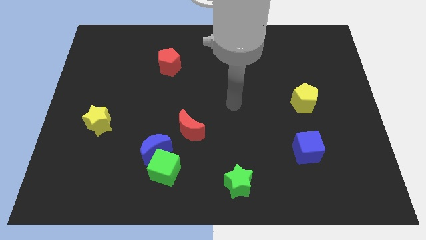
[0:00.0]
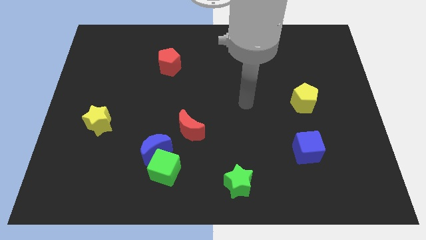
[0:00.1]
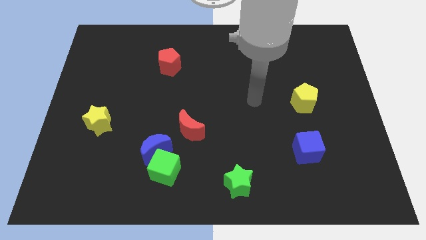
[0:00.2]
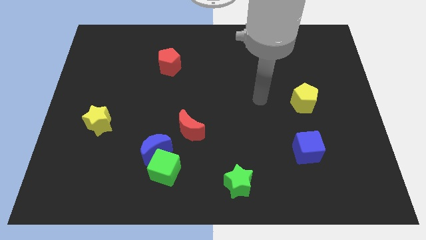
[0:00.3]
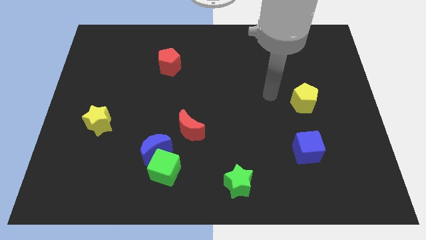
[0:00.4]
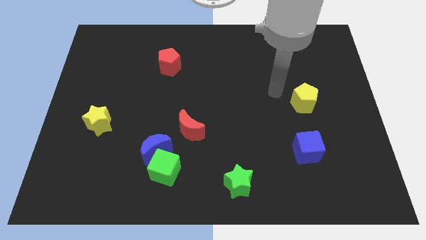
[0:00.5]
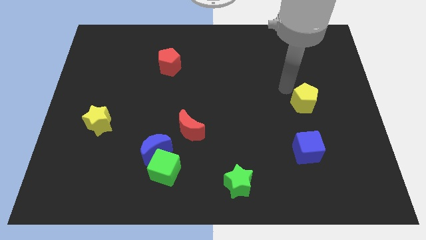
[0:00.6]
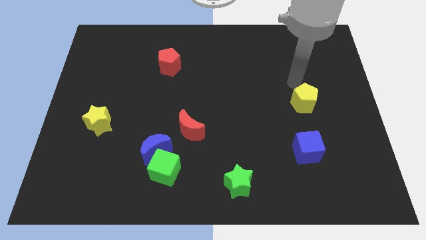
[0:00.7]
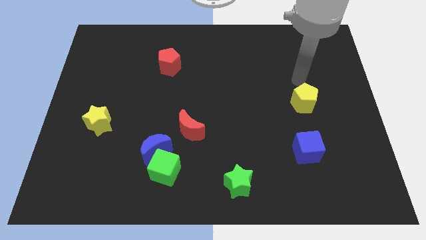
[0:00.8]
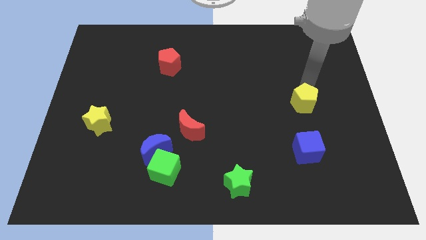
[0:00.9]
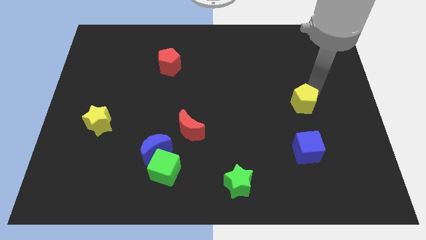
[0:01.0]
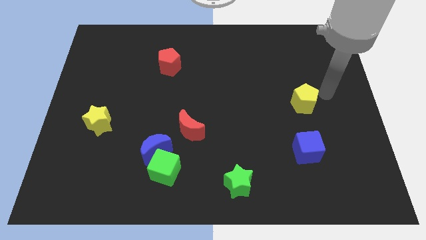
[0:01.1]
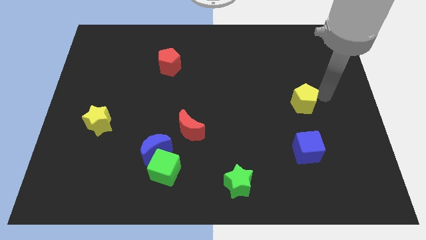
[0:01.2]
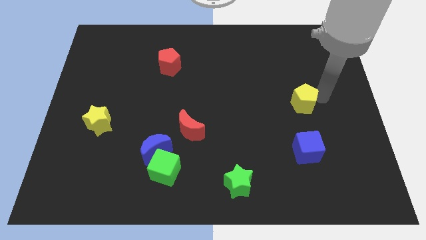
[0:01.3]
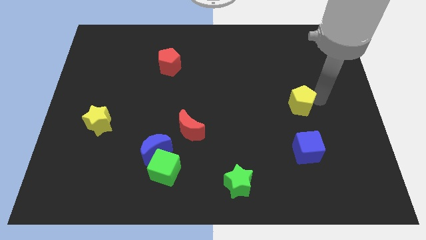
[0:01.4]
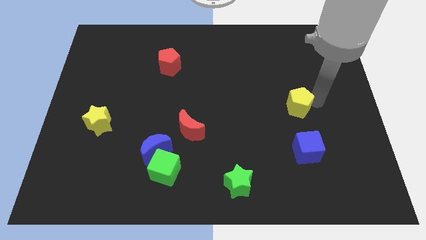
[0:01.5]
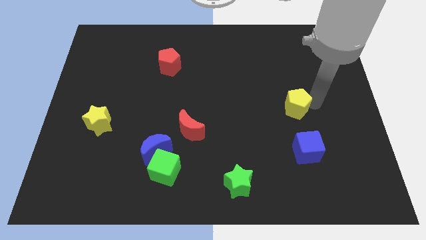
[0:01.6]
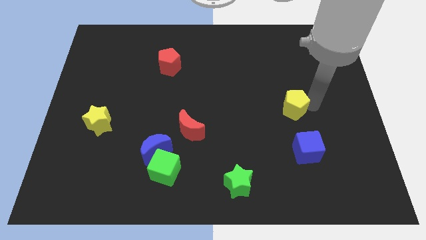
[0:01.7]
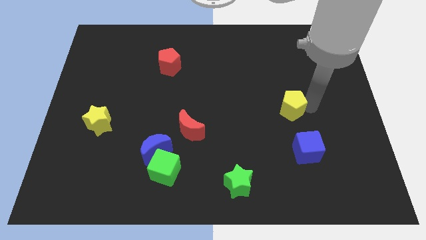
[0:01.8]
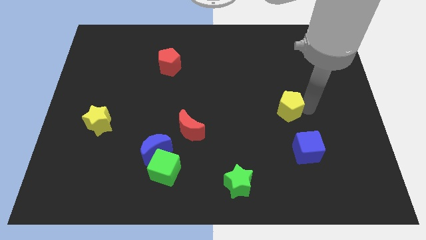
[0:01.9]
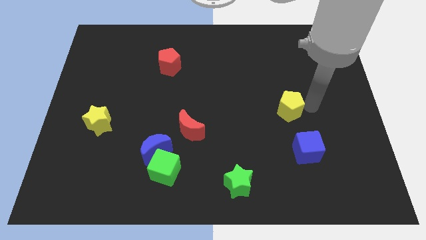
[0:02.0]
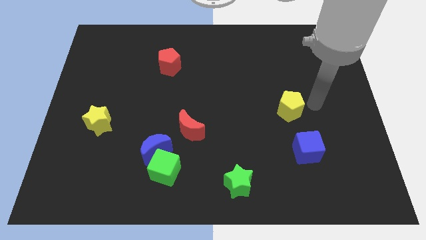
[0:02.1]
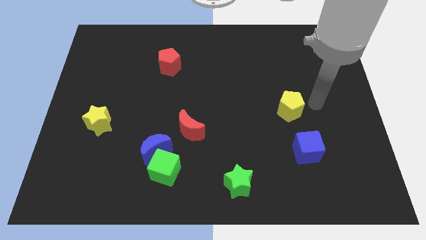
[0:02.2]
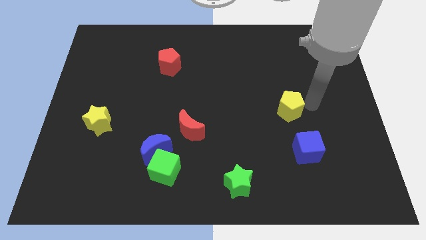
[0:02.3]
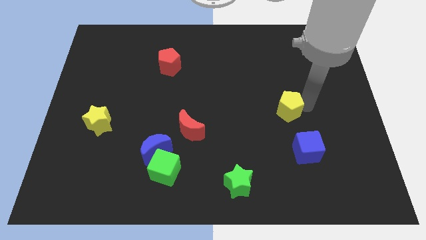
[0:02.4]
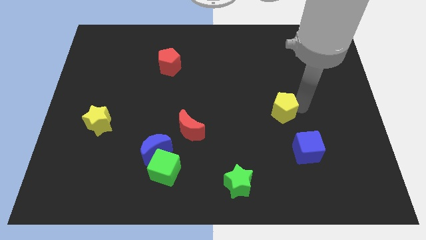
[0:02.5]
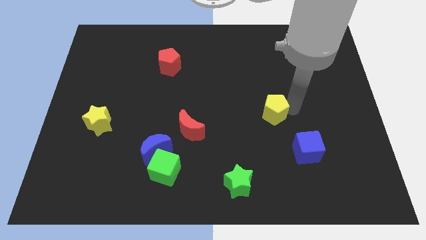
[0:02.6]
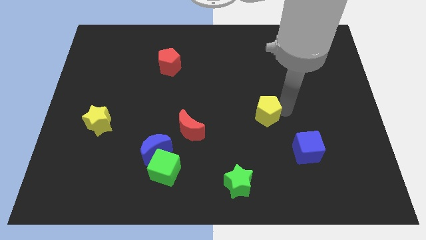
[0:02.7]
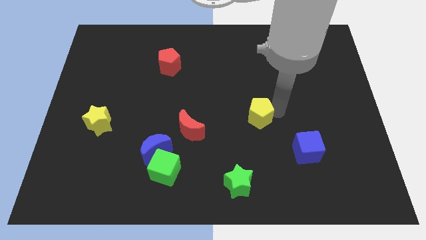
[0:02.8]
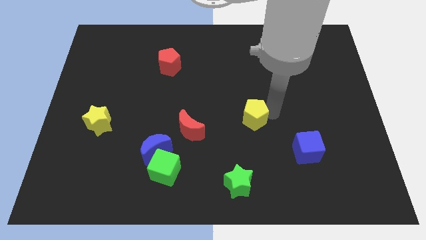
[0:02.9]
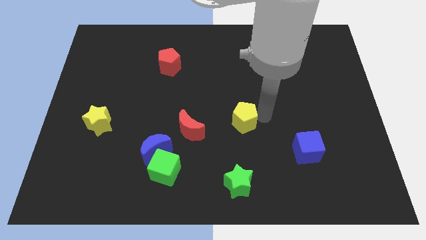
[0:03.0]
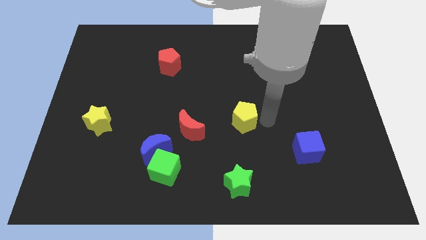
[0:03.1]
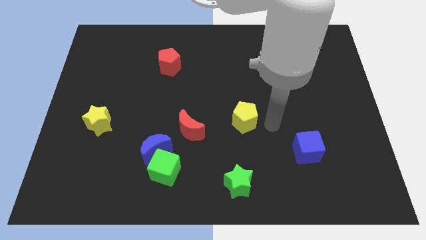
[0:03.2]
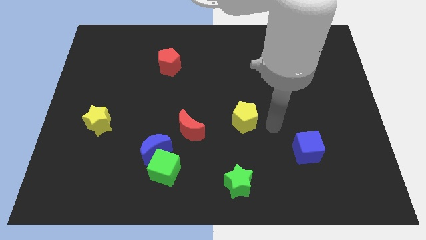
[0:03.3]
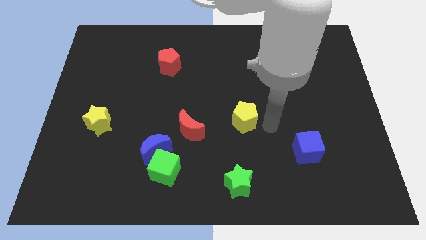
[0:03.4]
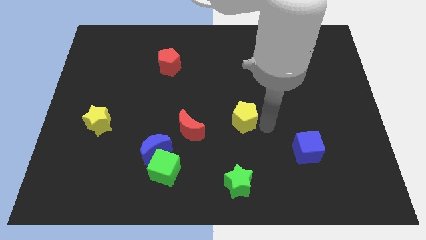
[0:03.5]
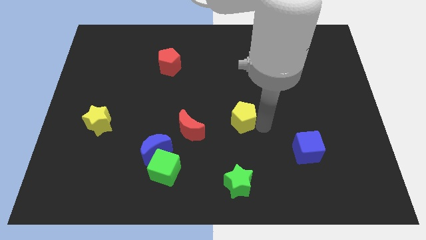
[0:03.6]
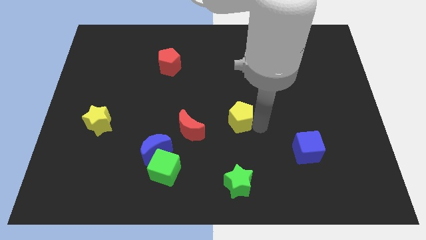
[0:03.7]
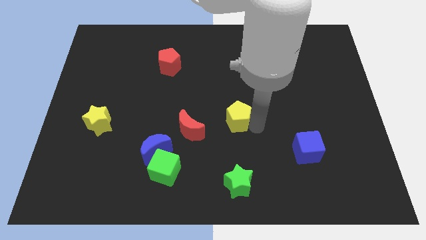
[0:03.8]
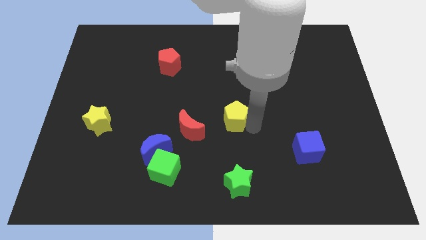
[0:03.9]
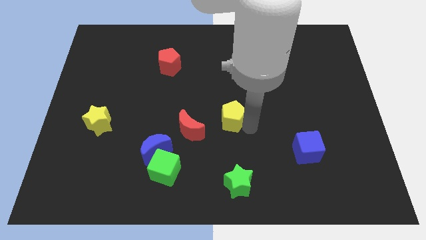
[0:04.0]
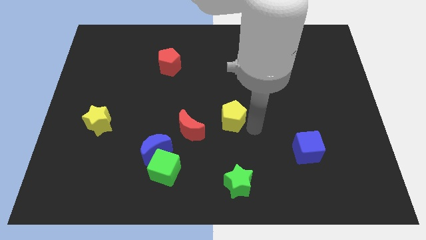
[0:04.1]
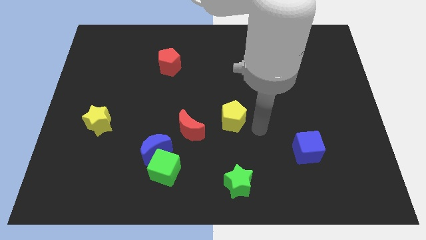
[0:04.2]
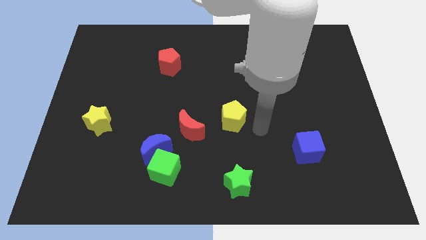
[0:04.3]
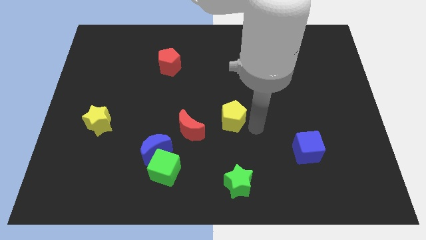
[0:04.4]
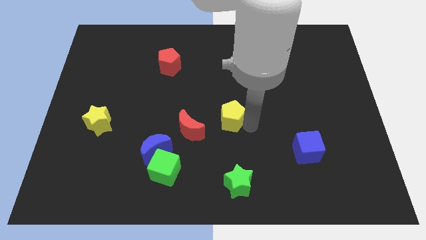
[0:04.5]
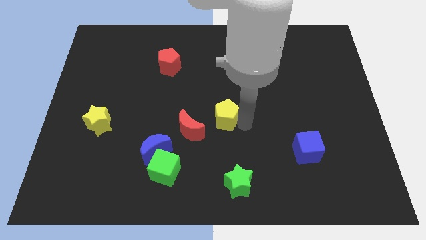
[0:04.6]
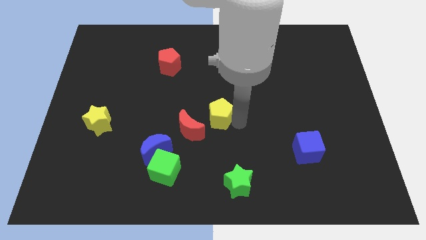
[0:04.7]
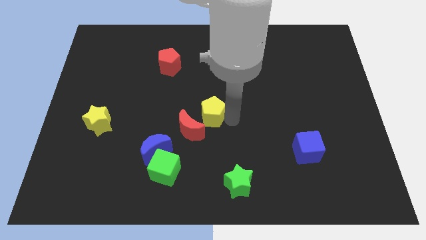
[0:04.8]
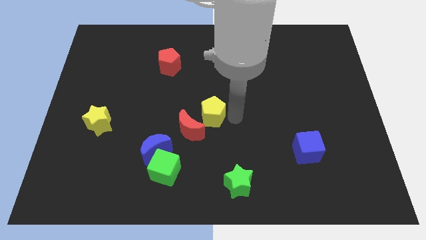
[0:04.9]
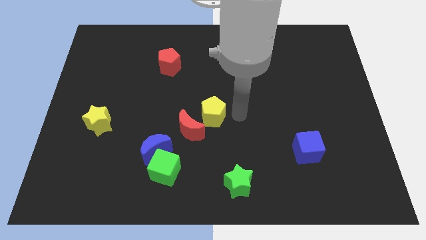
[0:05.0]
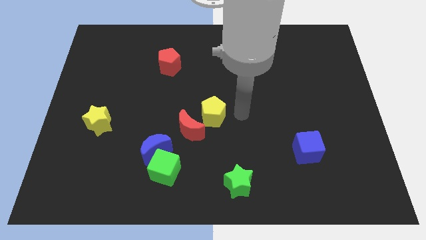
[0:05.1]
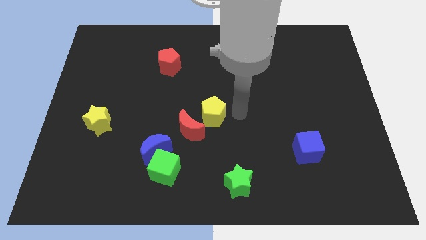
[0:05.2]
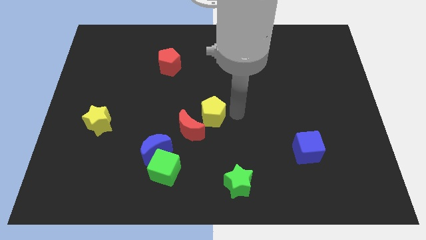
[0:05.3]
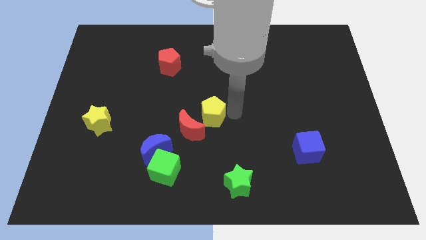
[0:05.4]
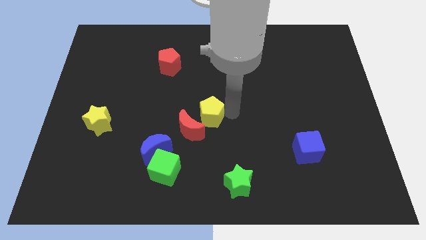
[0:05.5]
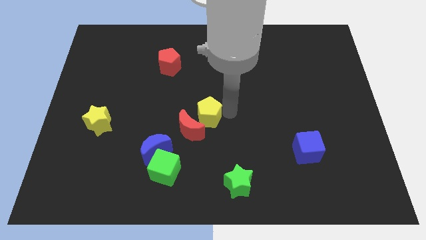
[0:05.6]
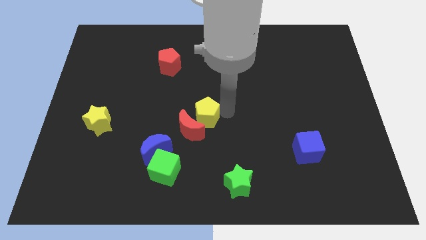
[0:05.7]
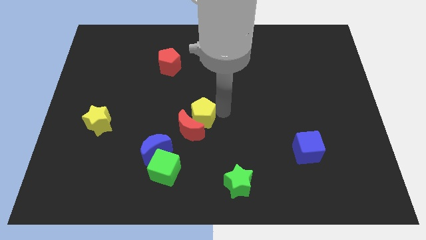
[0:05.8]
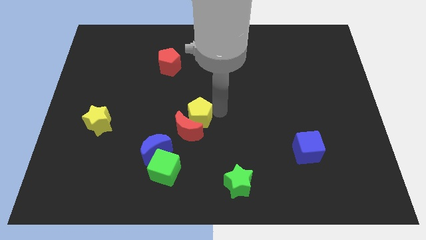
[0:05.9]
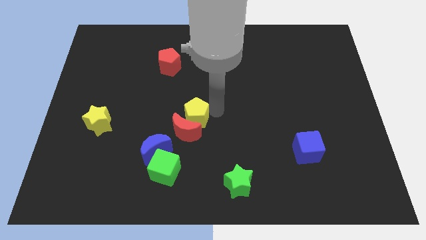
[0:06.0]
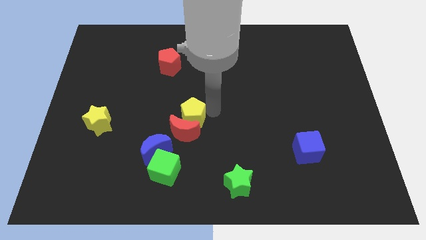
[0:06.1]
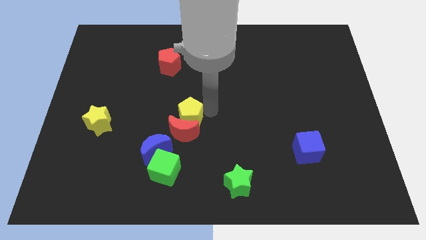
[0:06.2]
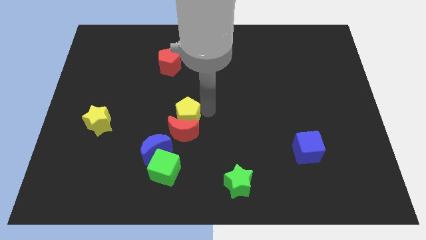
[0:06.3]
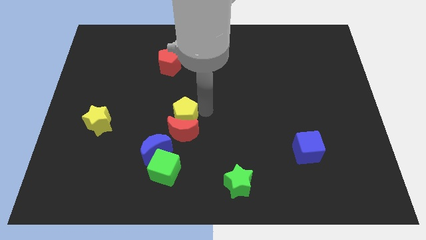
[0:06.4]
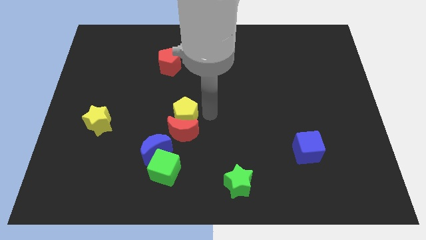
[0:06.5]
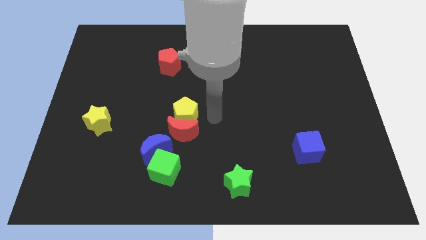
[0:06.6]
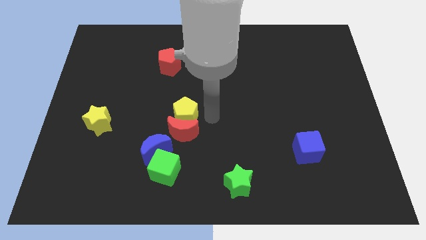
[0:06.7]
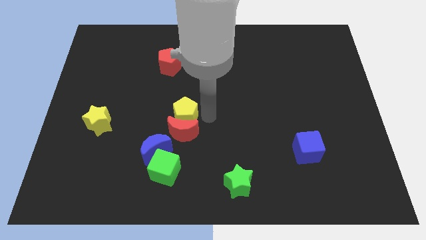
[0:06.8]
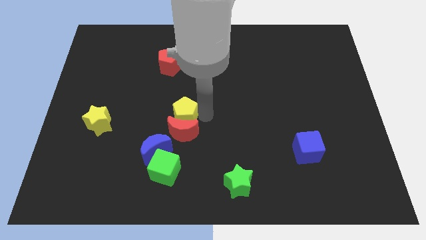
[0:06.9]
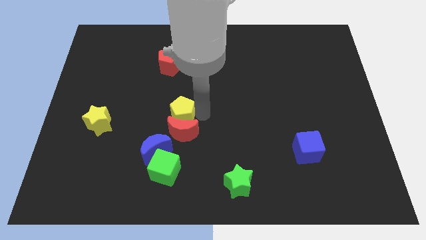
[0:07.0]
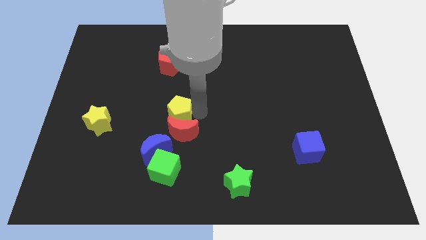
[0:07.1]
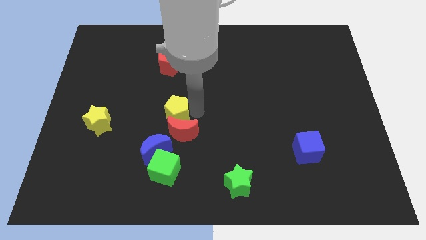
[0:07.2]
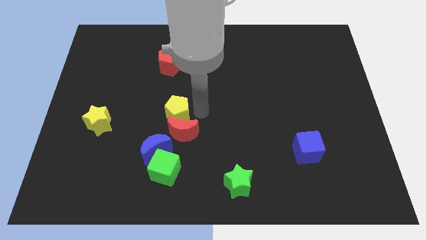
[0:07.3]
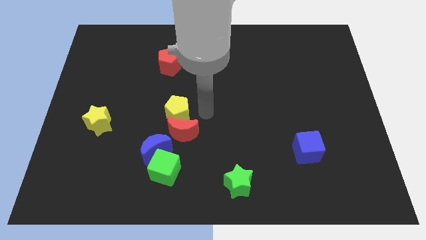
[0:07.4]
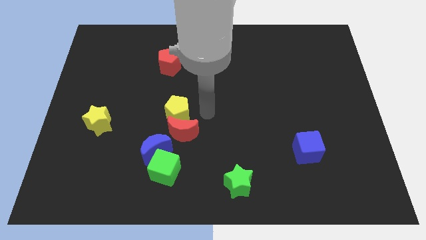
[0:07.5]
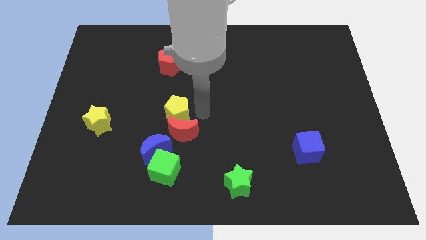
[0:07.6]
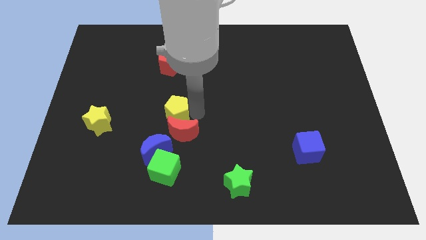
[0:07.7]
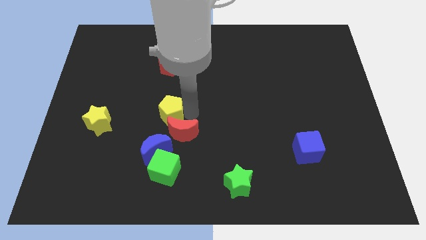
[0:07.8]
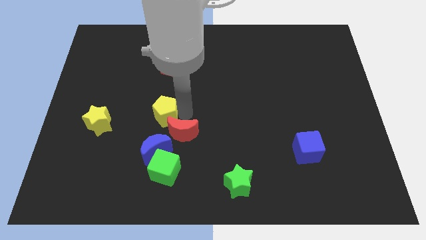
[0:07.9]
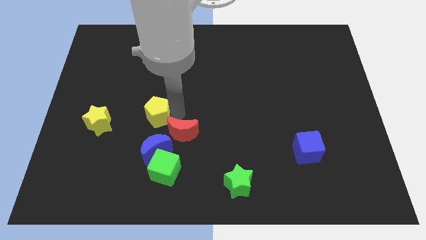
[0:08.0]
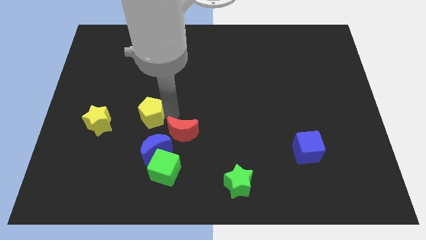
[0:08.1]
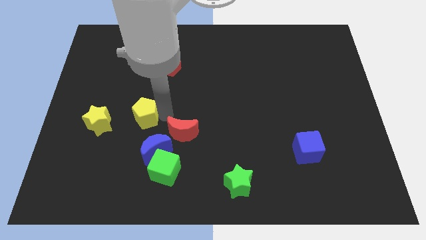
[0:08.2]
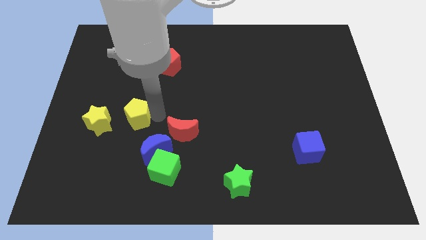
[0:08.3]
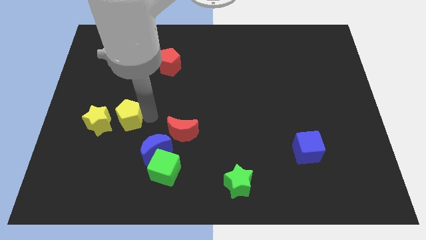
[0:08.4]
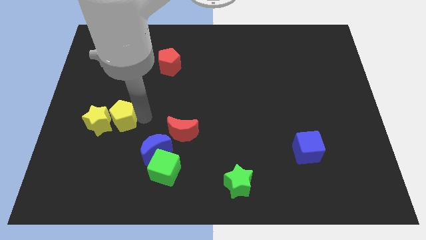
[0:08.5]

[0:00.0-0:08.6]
move the yellow pentagon close to the yellow star
